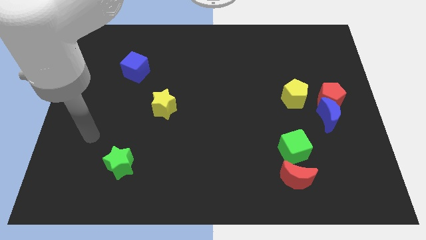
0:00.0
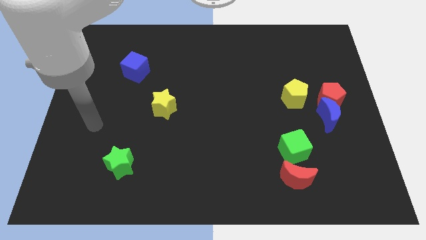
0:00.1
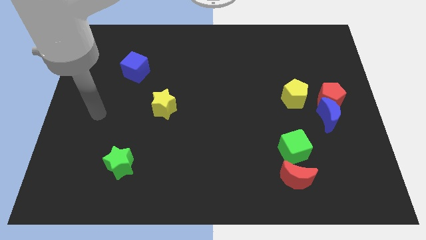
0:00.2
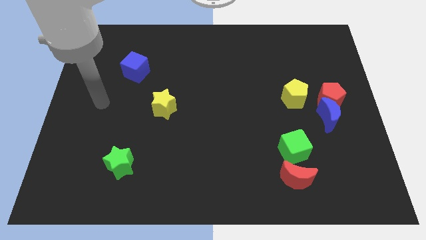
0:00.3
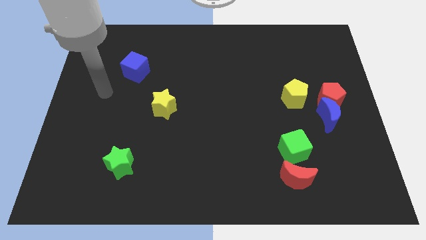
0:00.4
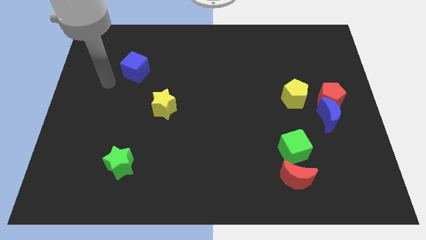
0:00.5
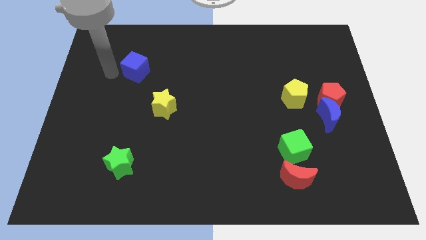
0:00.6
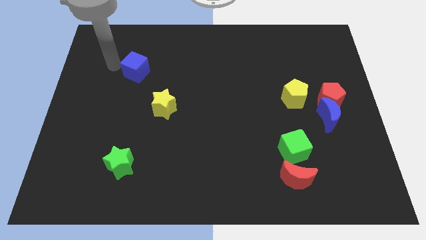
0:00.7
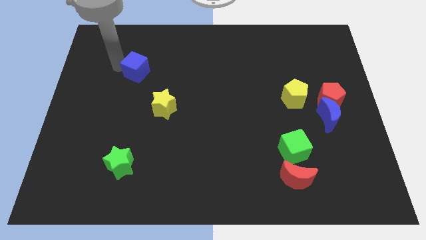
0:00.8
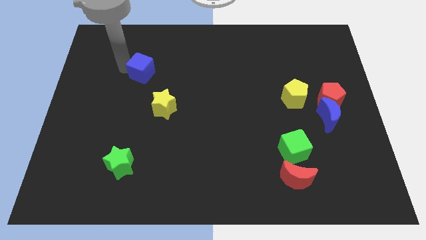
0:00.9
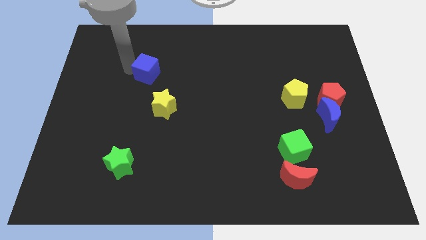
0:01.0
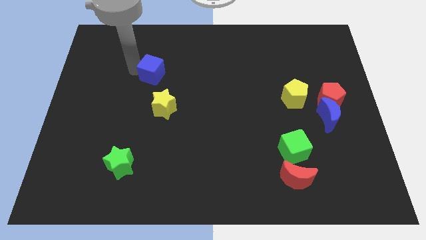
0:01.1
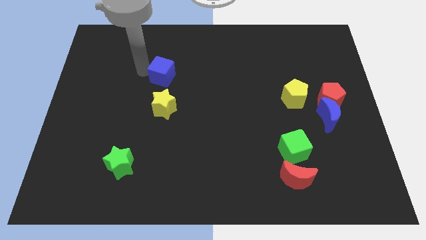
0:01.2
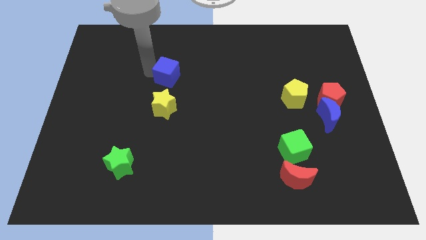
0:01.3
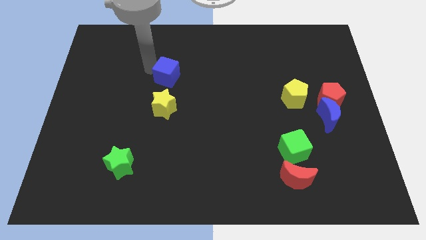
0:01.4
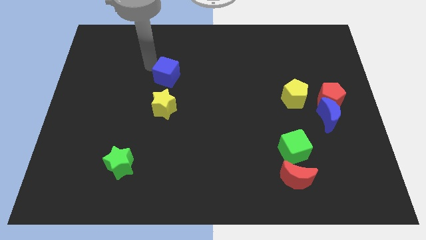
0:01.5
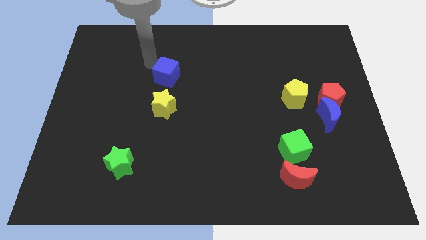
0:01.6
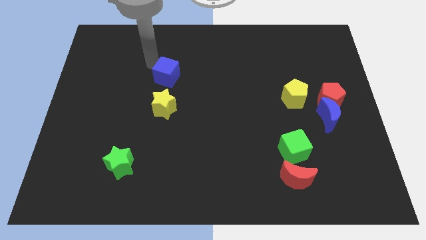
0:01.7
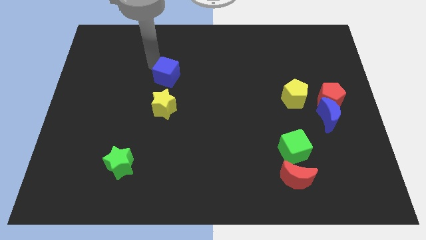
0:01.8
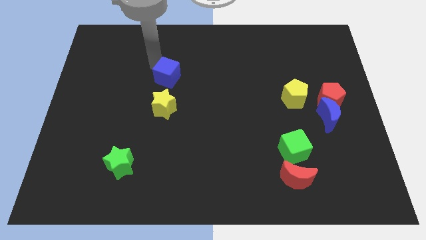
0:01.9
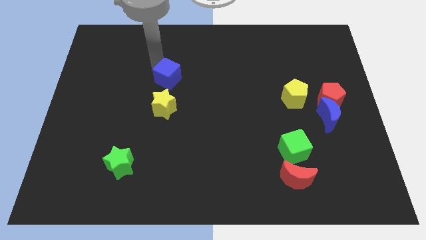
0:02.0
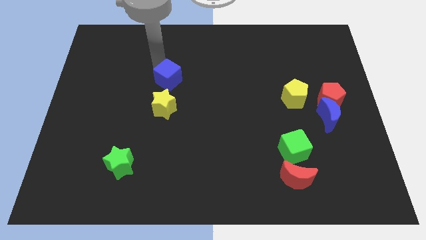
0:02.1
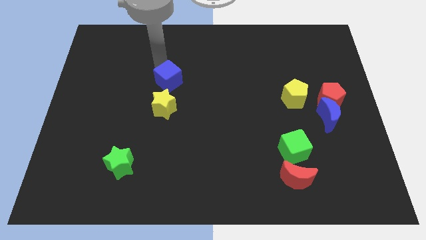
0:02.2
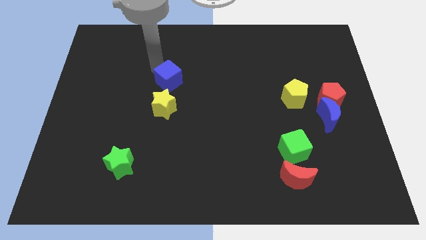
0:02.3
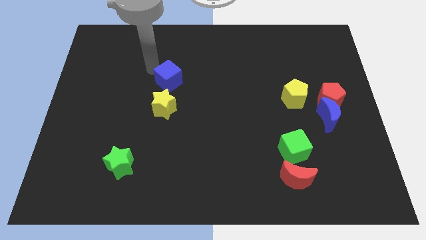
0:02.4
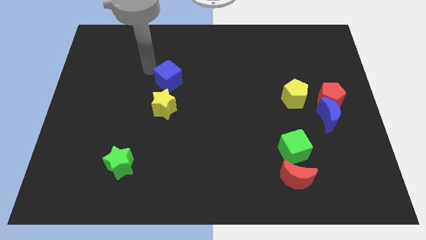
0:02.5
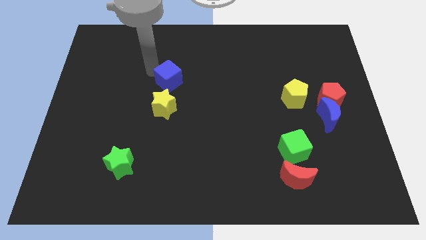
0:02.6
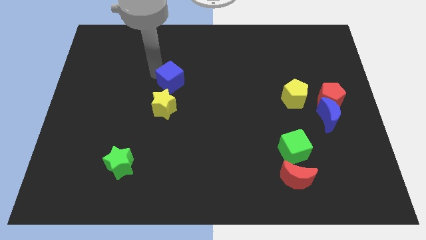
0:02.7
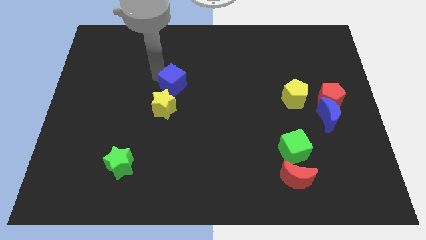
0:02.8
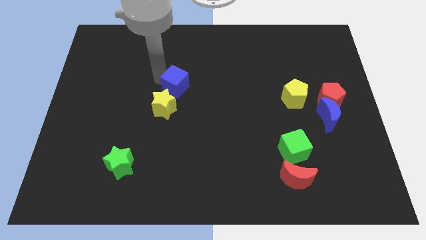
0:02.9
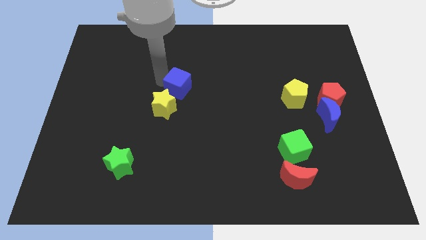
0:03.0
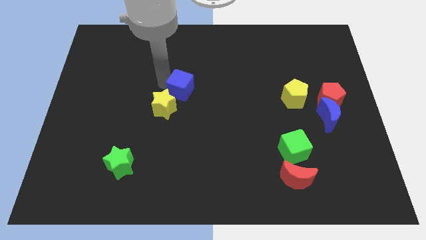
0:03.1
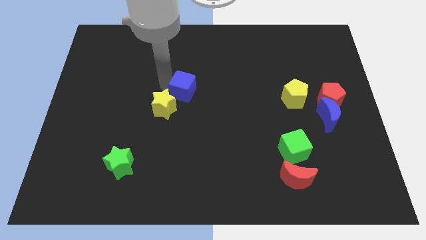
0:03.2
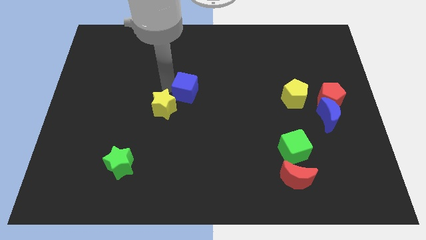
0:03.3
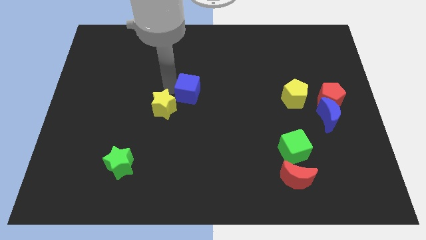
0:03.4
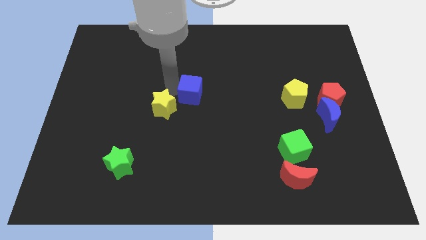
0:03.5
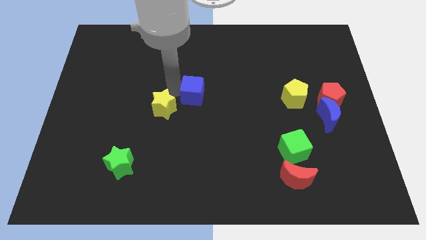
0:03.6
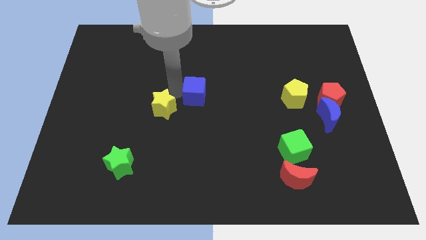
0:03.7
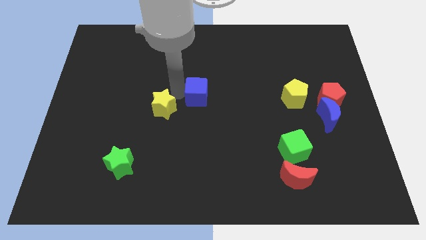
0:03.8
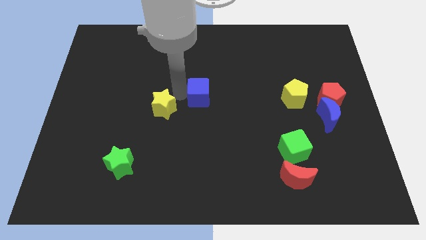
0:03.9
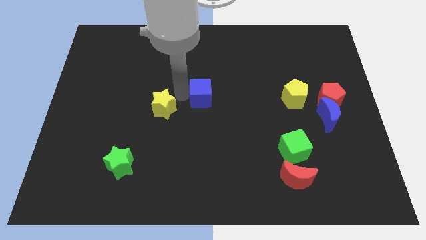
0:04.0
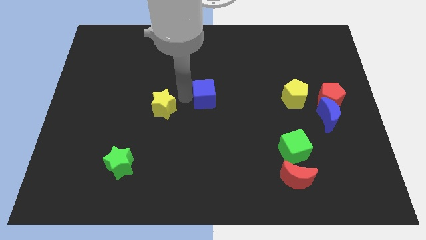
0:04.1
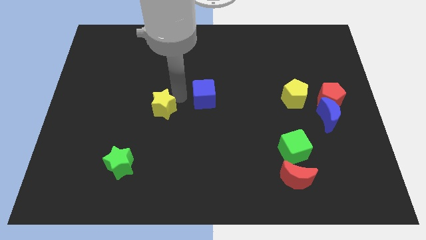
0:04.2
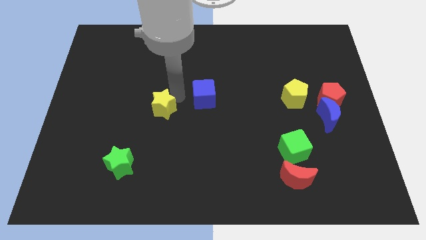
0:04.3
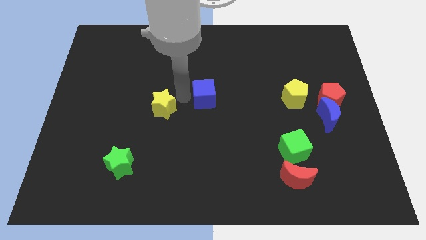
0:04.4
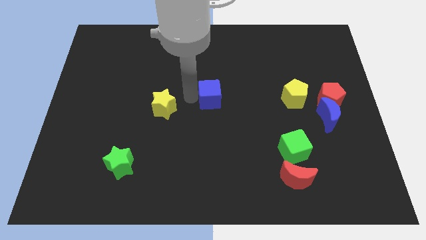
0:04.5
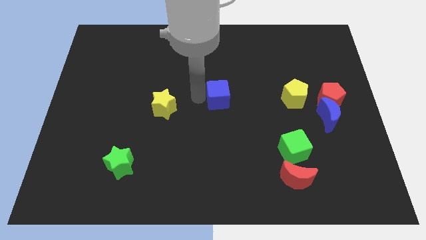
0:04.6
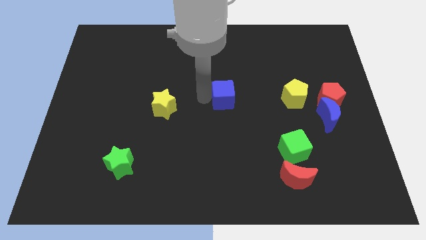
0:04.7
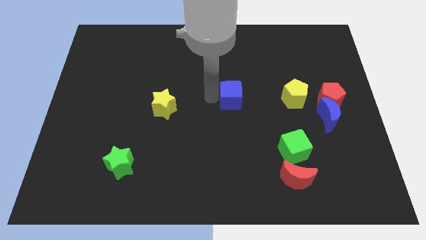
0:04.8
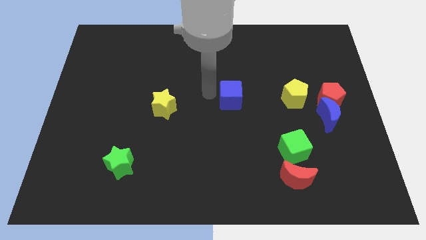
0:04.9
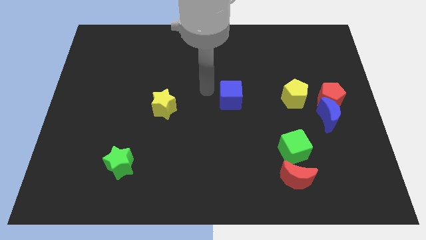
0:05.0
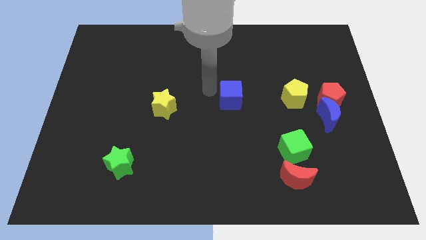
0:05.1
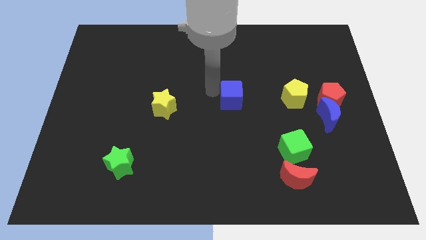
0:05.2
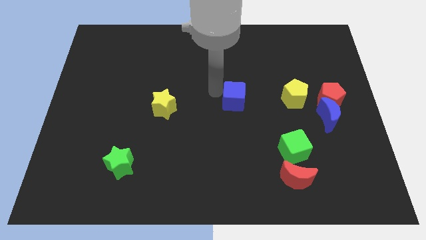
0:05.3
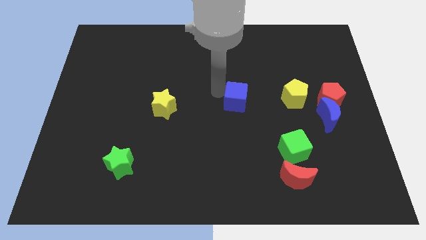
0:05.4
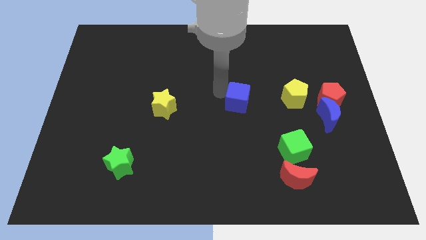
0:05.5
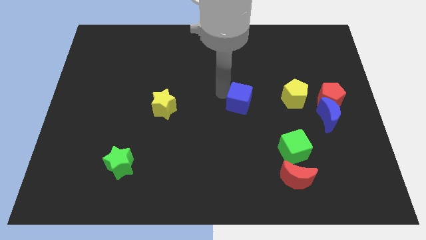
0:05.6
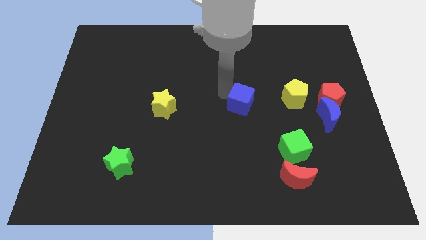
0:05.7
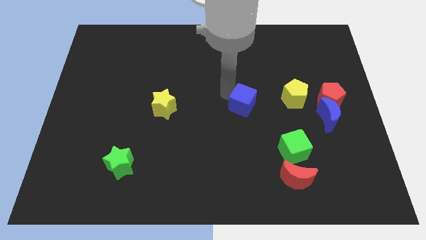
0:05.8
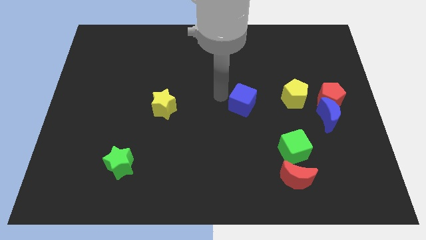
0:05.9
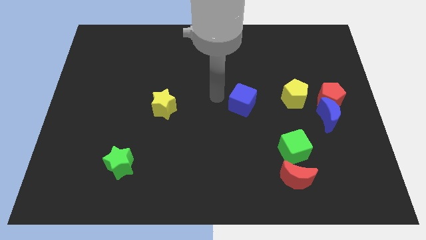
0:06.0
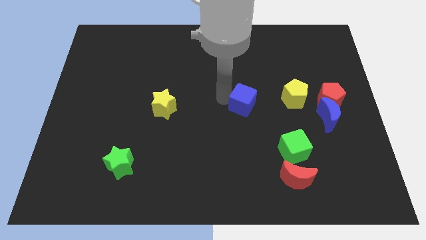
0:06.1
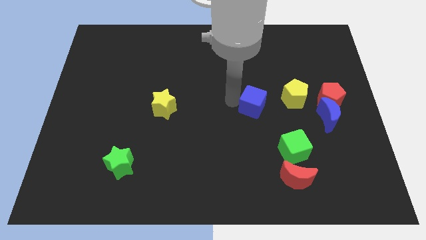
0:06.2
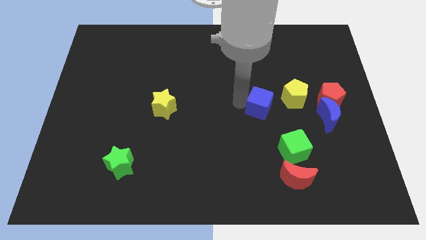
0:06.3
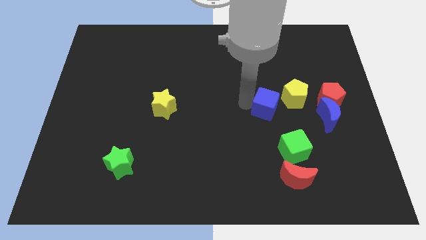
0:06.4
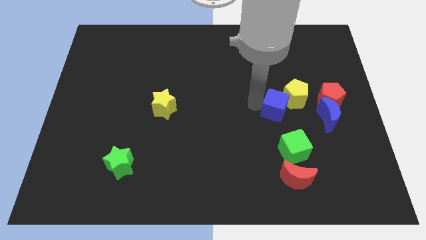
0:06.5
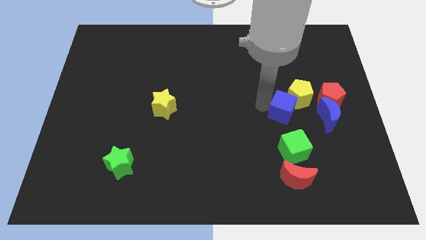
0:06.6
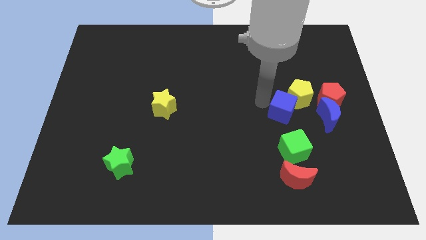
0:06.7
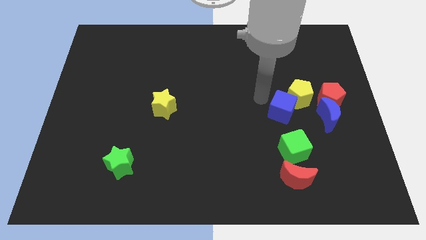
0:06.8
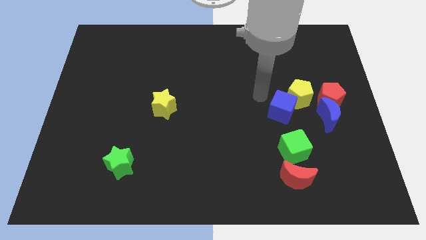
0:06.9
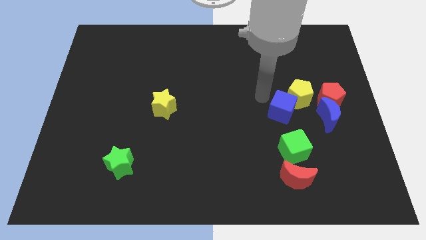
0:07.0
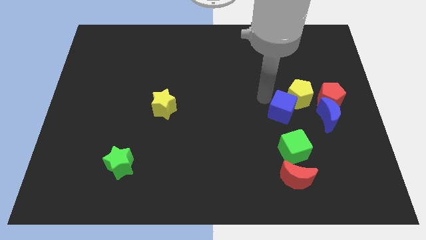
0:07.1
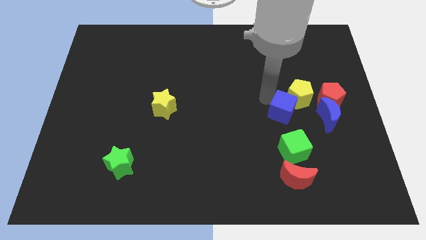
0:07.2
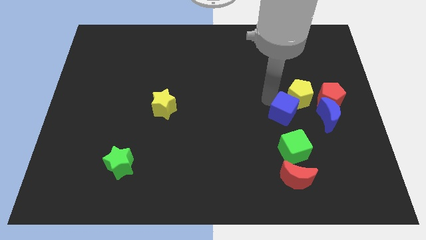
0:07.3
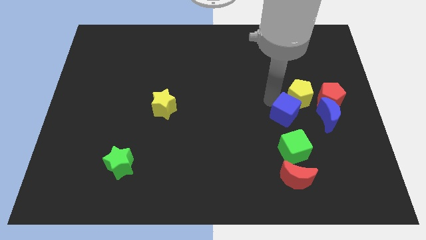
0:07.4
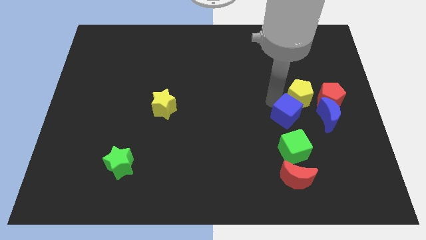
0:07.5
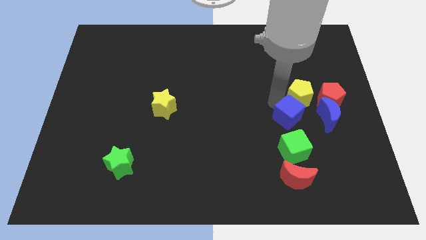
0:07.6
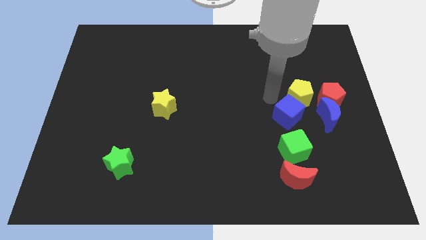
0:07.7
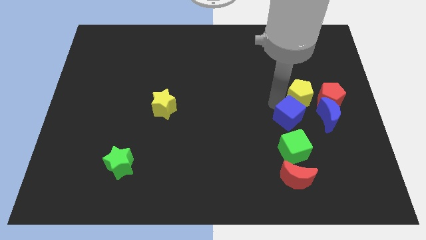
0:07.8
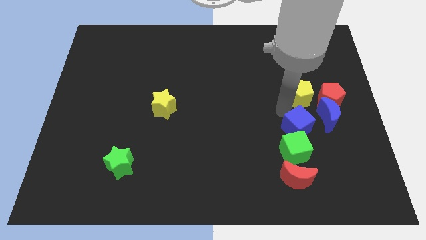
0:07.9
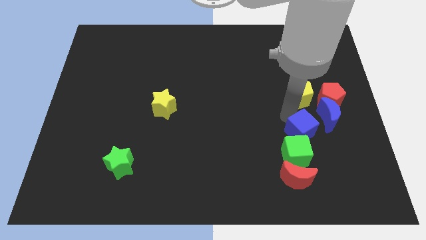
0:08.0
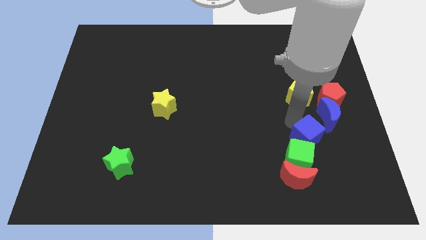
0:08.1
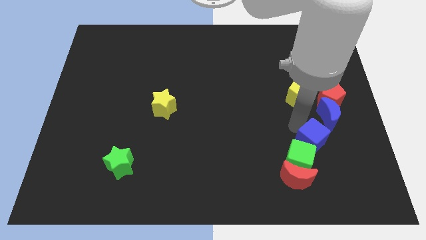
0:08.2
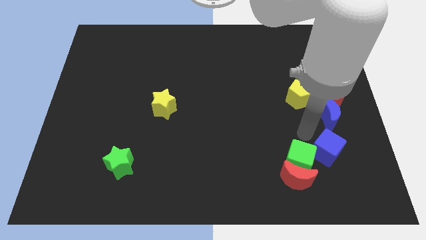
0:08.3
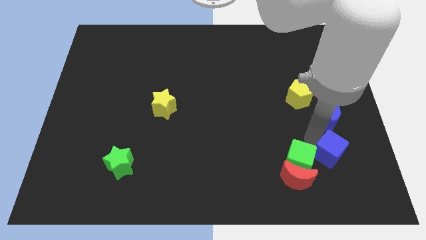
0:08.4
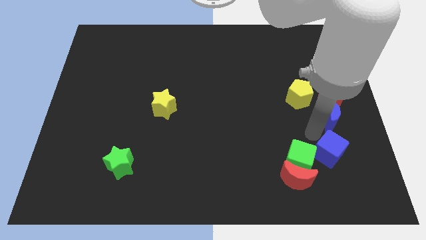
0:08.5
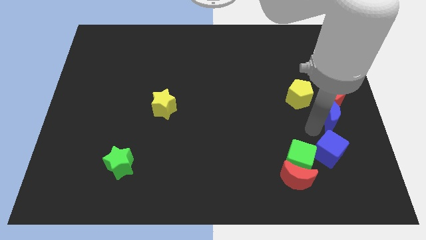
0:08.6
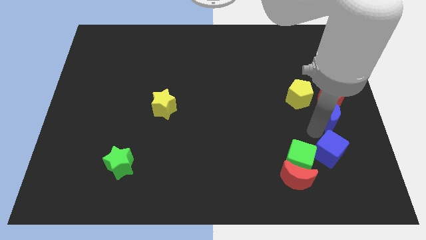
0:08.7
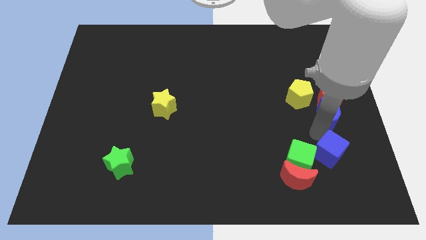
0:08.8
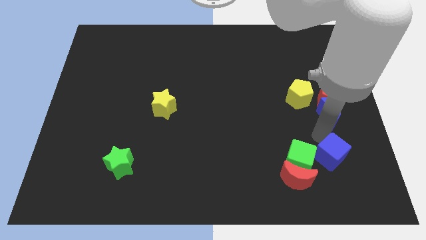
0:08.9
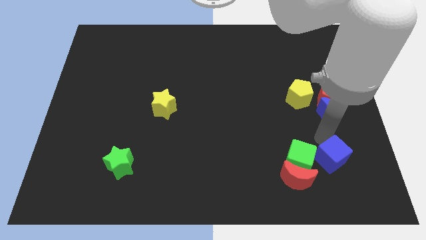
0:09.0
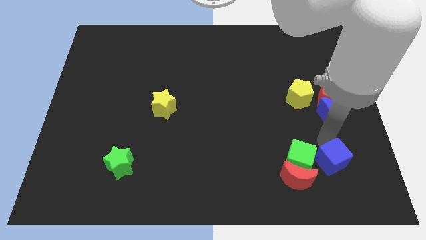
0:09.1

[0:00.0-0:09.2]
put the blue cube just right of the red moon
